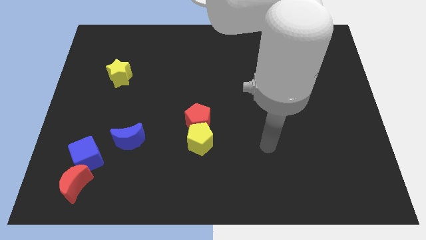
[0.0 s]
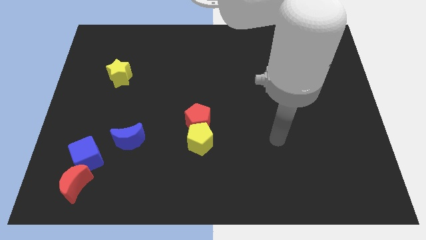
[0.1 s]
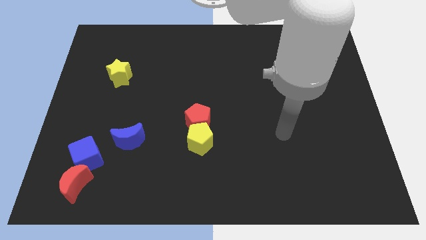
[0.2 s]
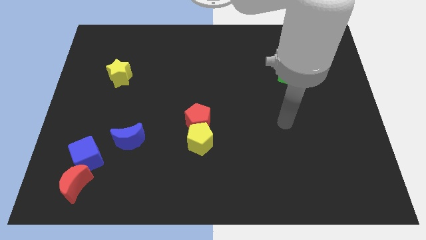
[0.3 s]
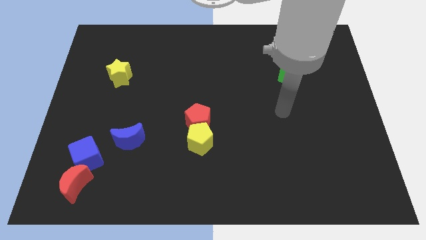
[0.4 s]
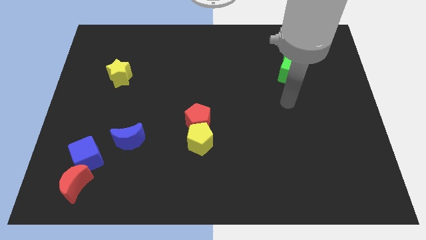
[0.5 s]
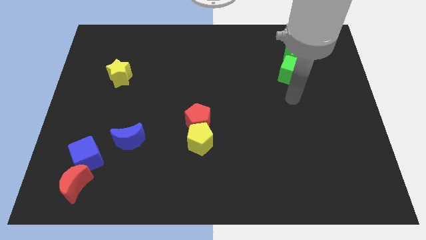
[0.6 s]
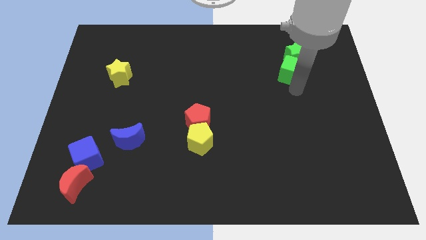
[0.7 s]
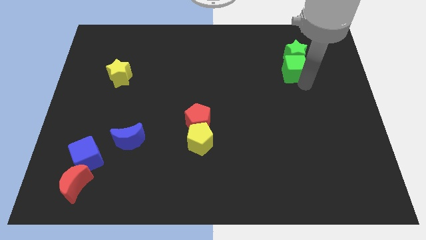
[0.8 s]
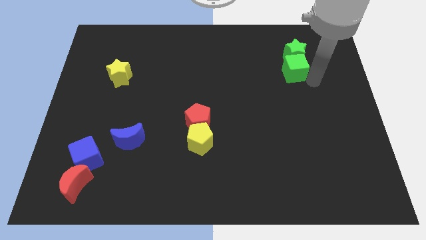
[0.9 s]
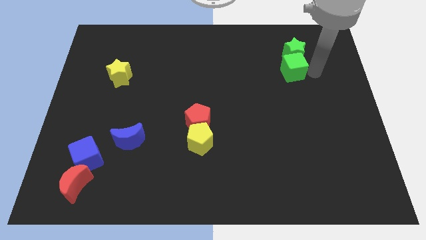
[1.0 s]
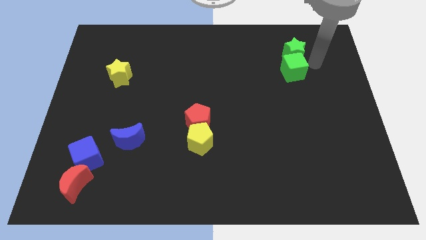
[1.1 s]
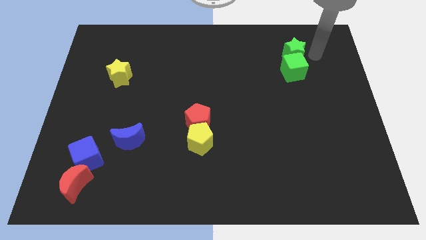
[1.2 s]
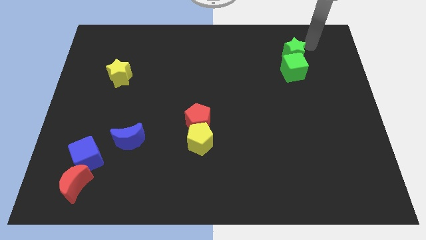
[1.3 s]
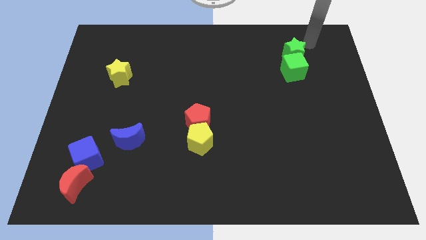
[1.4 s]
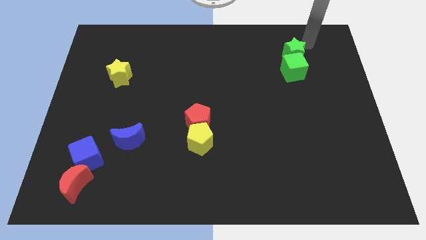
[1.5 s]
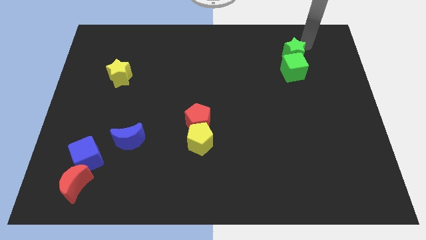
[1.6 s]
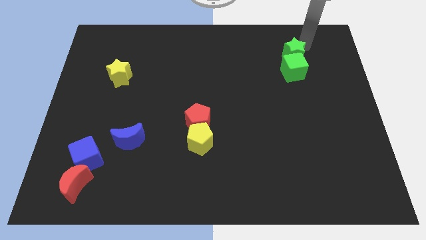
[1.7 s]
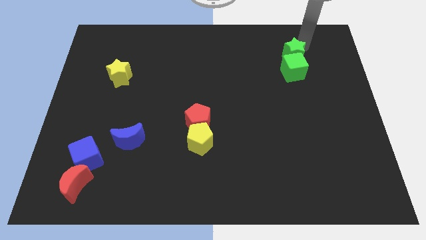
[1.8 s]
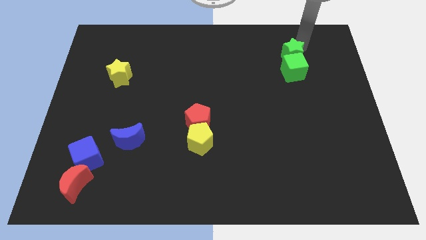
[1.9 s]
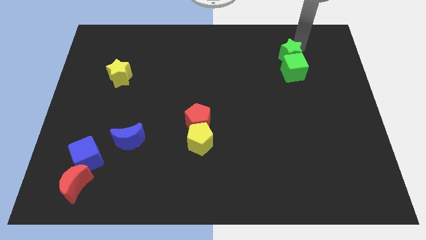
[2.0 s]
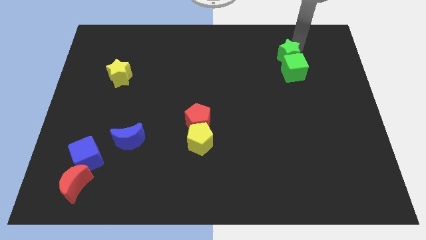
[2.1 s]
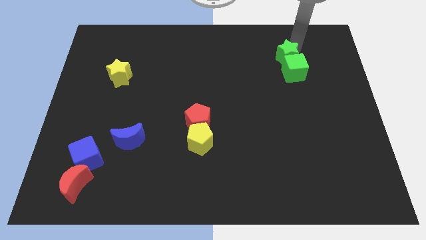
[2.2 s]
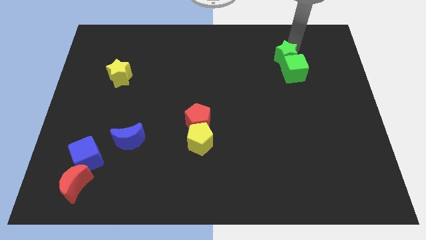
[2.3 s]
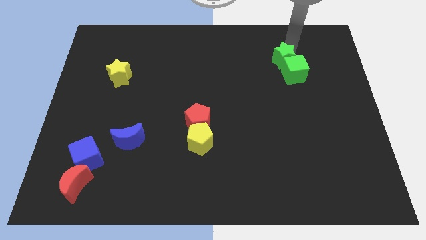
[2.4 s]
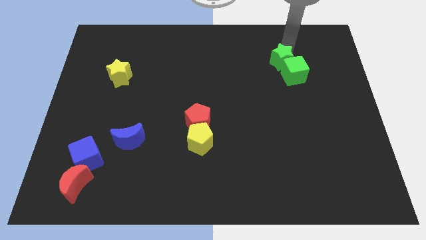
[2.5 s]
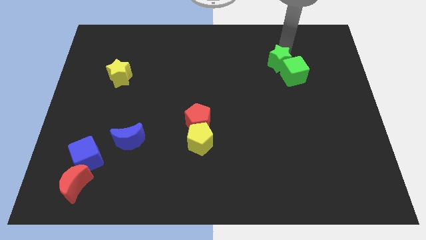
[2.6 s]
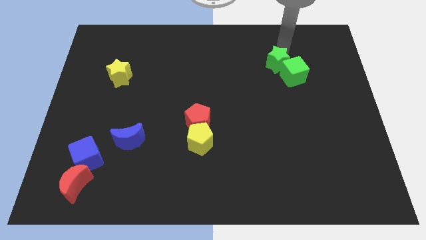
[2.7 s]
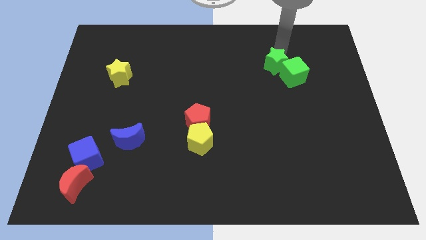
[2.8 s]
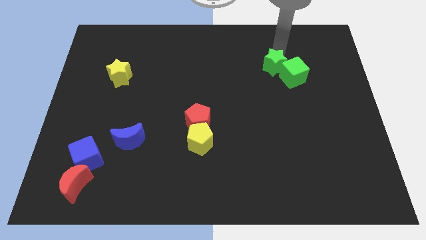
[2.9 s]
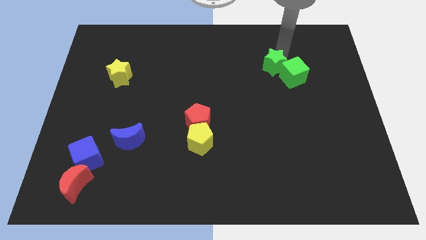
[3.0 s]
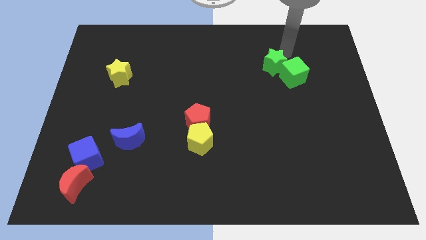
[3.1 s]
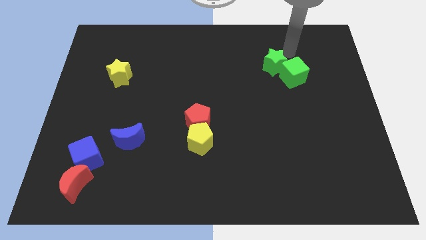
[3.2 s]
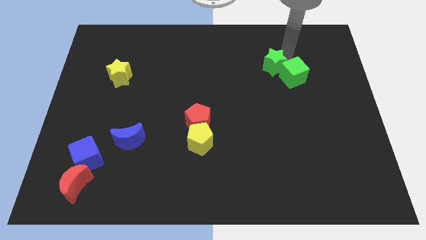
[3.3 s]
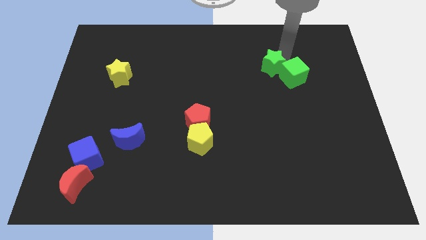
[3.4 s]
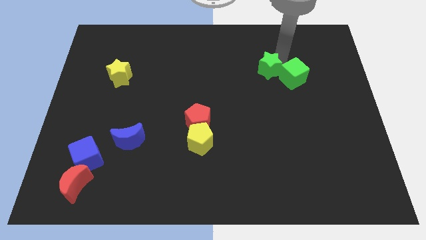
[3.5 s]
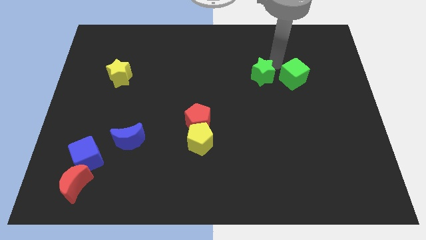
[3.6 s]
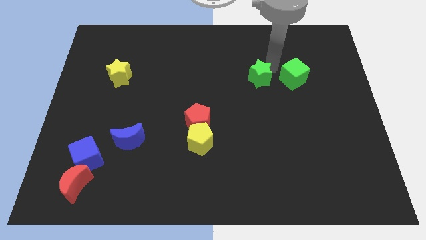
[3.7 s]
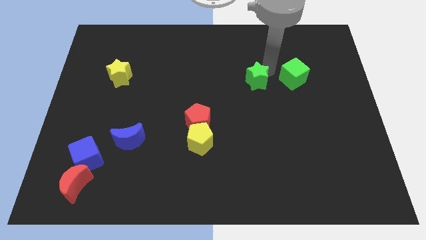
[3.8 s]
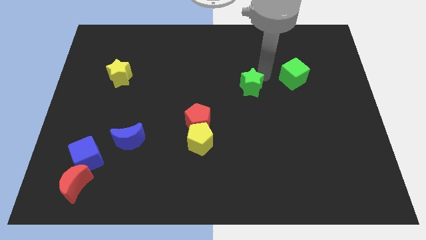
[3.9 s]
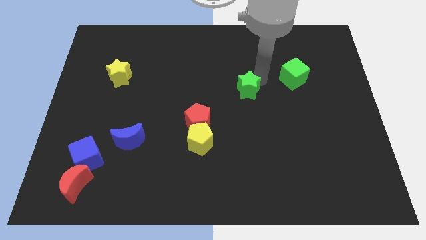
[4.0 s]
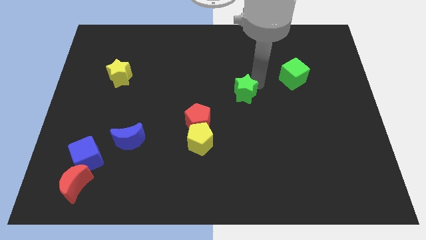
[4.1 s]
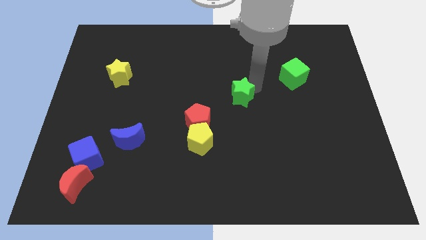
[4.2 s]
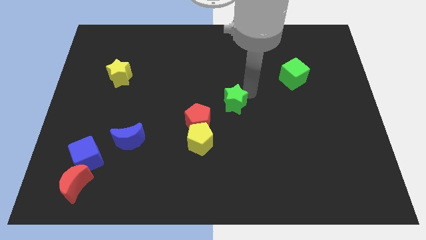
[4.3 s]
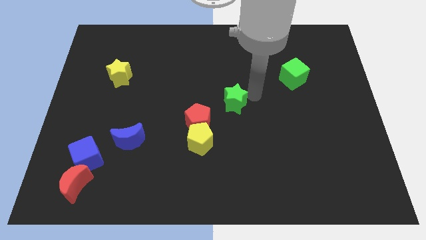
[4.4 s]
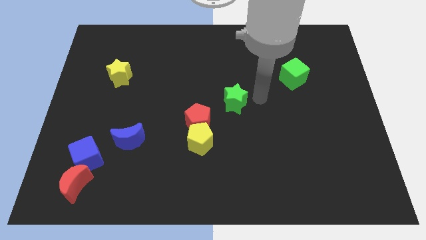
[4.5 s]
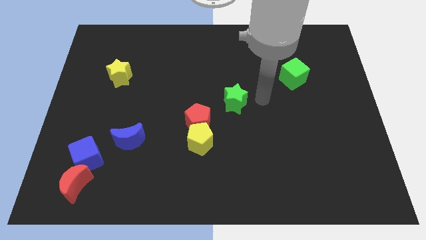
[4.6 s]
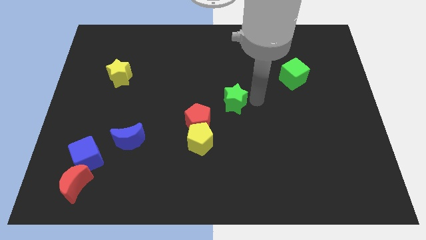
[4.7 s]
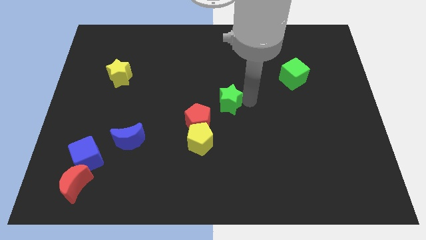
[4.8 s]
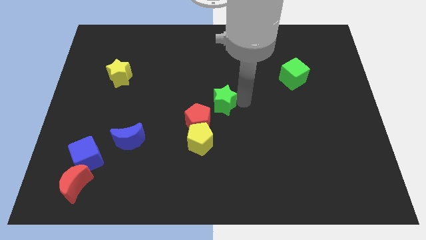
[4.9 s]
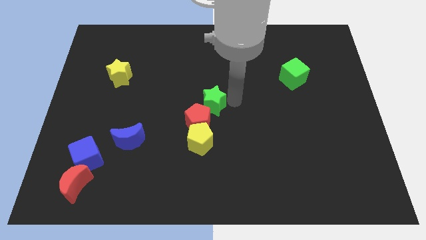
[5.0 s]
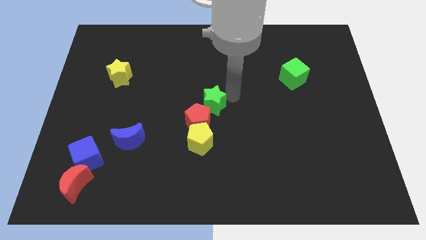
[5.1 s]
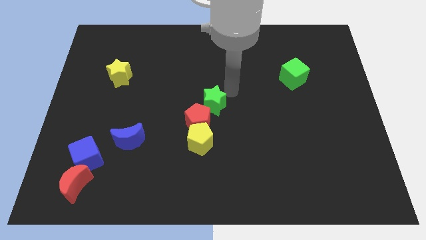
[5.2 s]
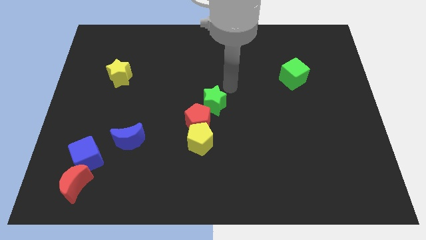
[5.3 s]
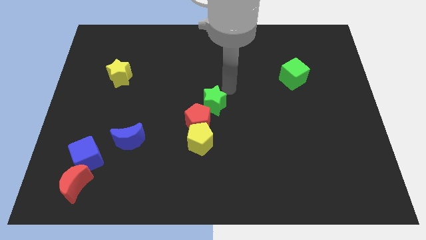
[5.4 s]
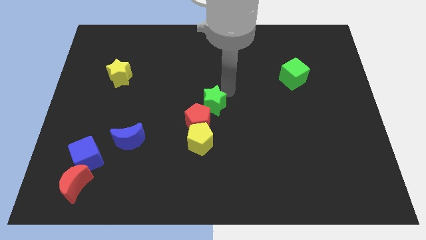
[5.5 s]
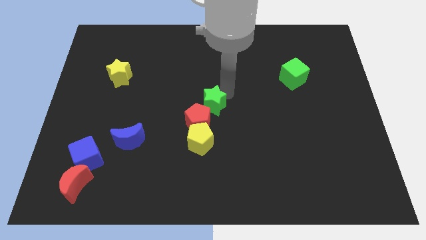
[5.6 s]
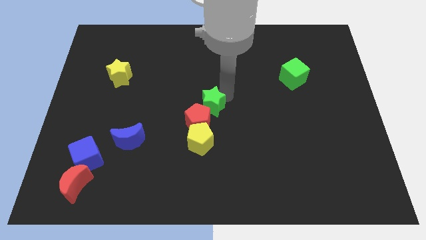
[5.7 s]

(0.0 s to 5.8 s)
put the green star to the red pentagon

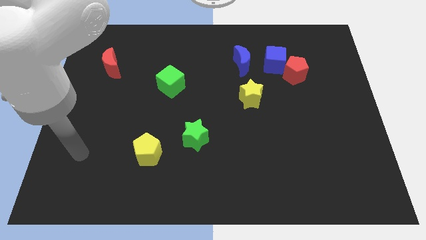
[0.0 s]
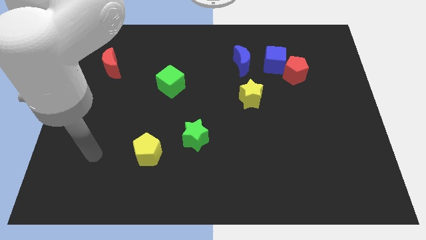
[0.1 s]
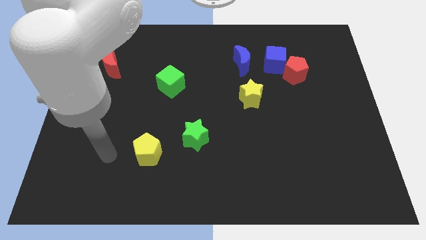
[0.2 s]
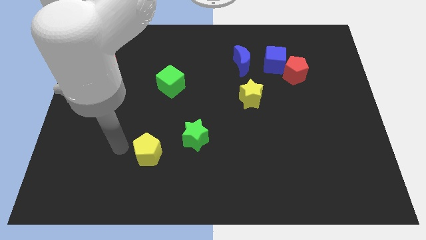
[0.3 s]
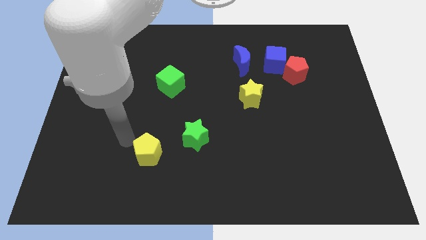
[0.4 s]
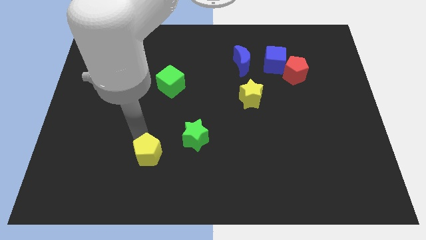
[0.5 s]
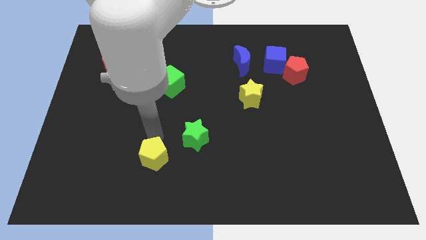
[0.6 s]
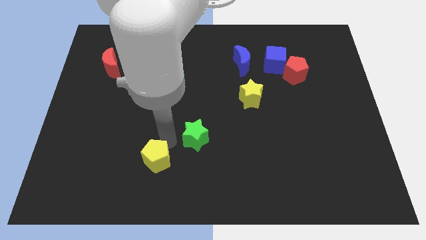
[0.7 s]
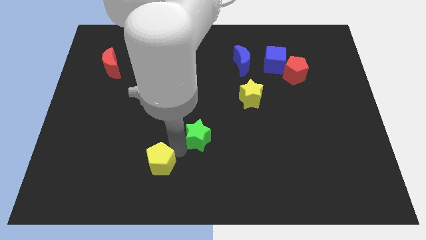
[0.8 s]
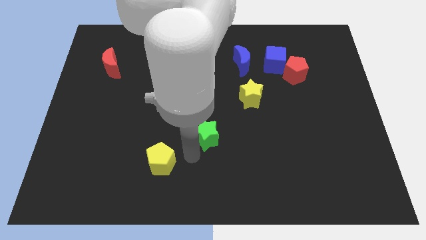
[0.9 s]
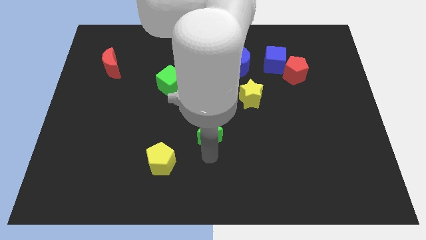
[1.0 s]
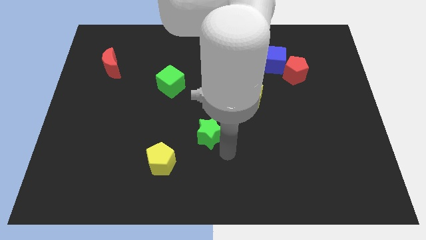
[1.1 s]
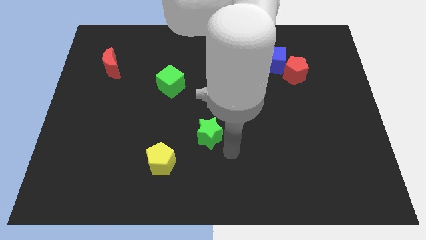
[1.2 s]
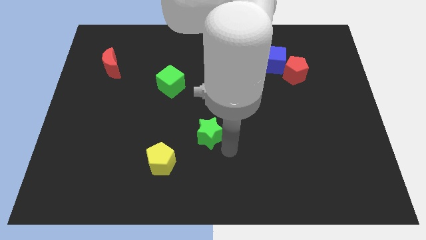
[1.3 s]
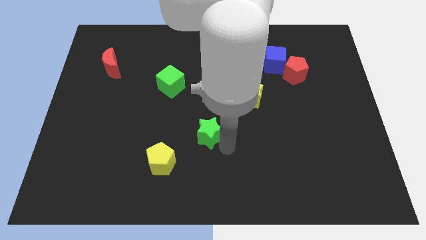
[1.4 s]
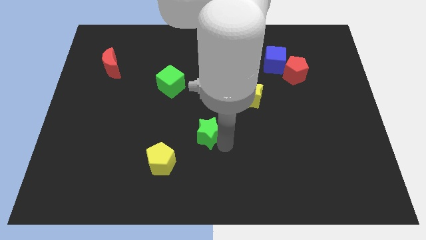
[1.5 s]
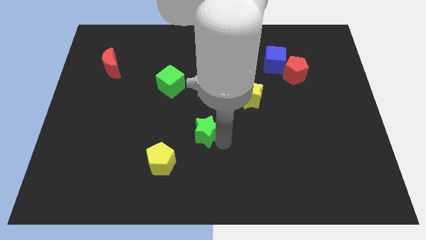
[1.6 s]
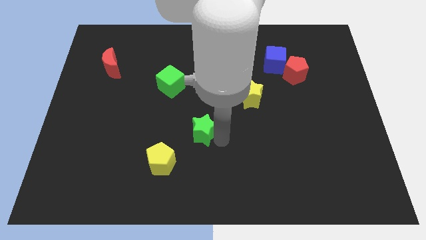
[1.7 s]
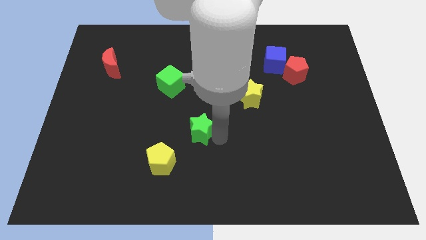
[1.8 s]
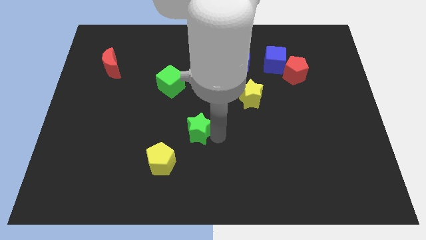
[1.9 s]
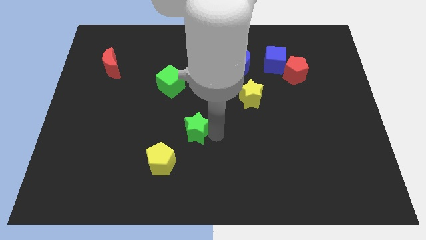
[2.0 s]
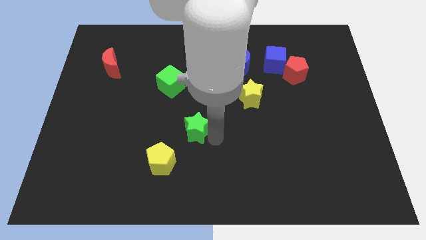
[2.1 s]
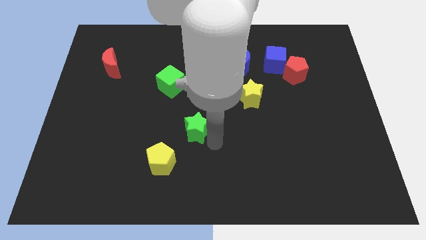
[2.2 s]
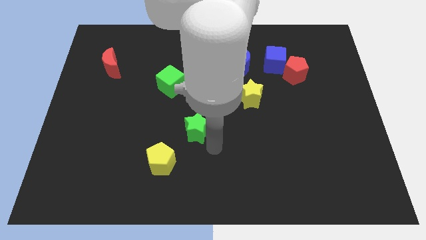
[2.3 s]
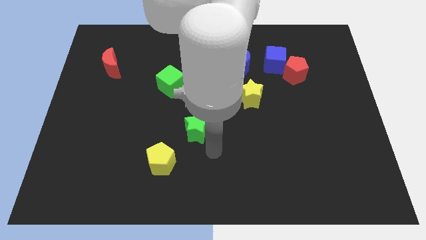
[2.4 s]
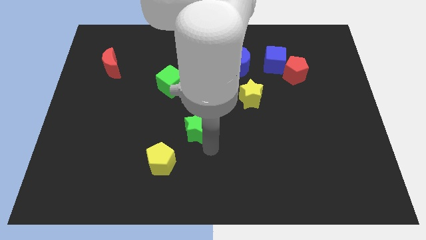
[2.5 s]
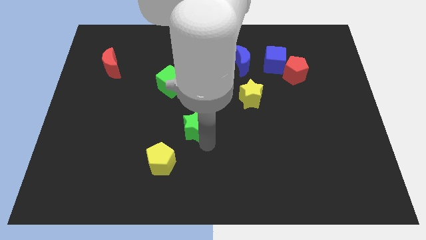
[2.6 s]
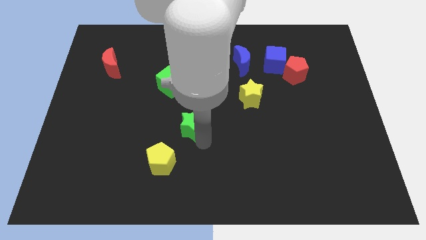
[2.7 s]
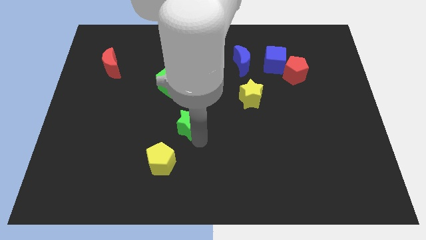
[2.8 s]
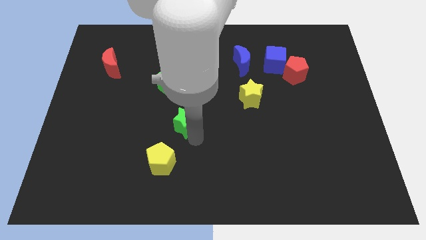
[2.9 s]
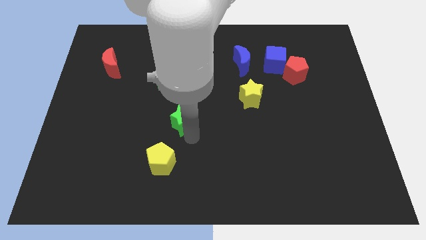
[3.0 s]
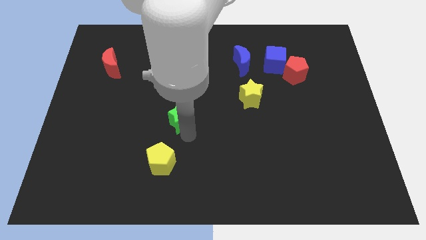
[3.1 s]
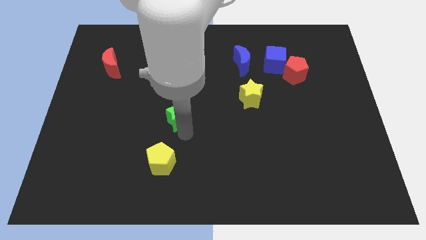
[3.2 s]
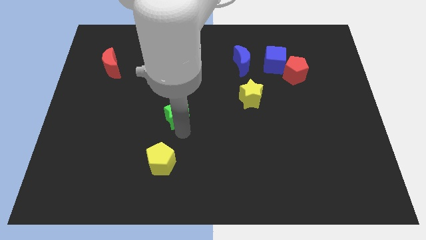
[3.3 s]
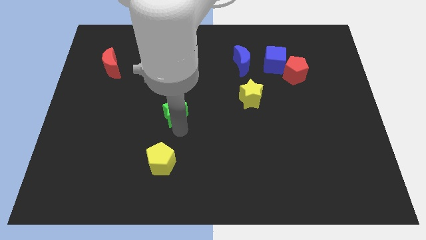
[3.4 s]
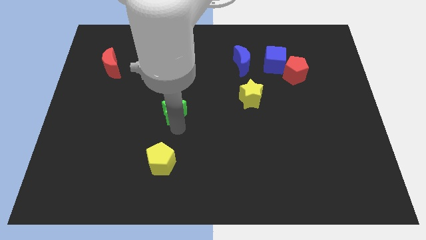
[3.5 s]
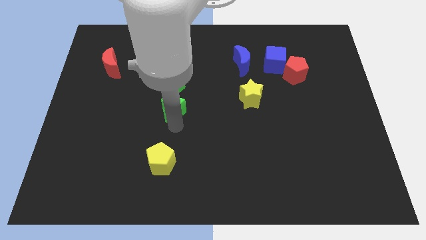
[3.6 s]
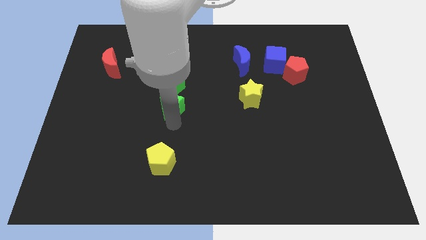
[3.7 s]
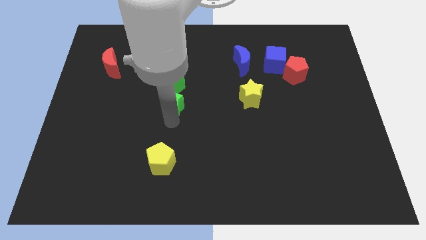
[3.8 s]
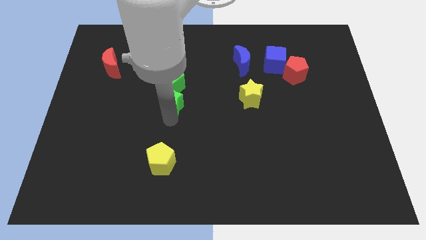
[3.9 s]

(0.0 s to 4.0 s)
put the green star next to the green cube
